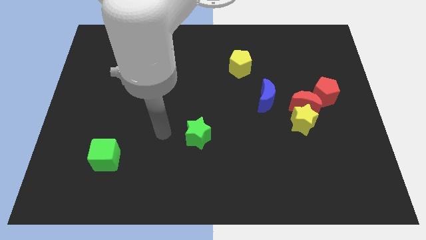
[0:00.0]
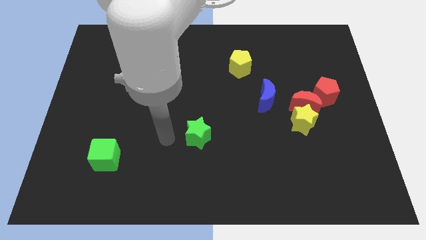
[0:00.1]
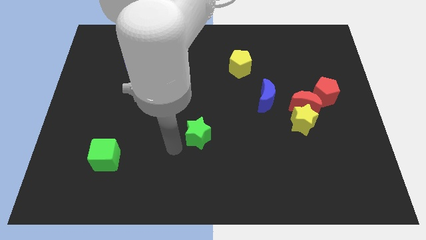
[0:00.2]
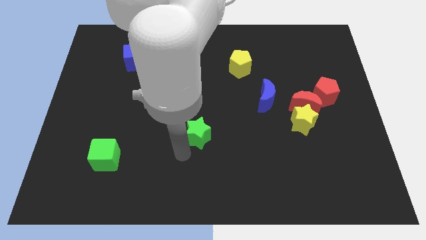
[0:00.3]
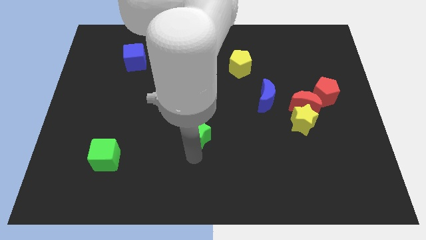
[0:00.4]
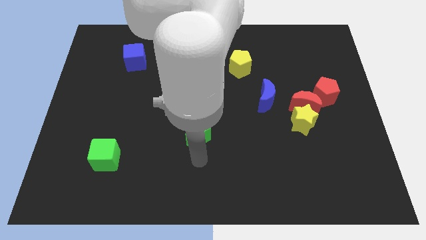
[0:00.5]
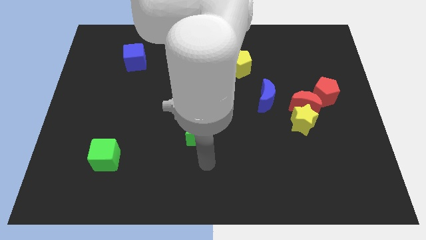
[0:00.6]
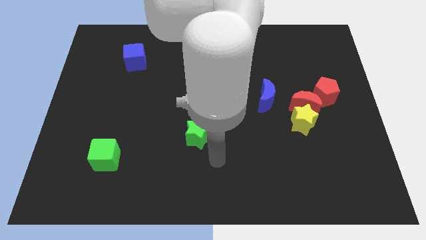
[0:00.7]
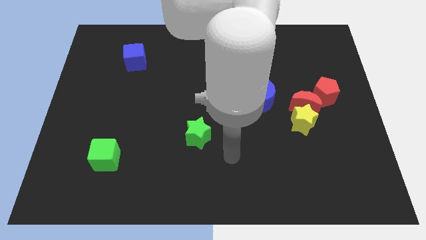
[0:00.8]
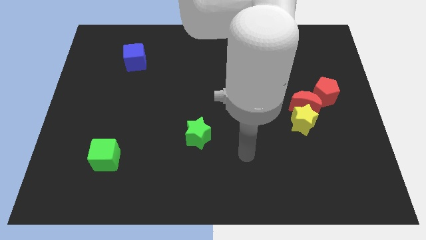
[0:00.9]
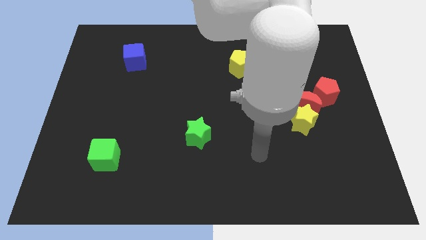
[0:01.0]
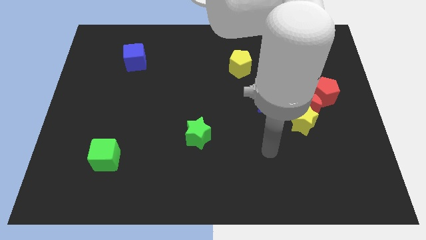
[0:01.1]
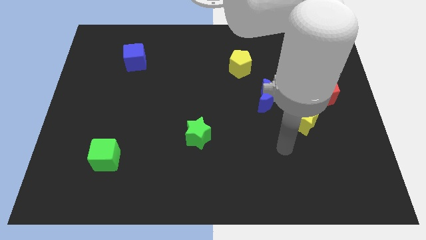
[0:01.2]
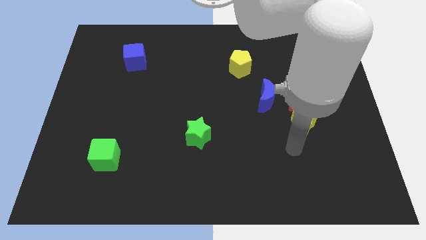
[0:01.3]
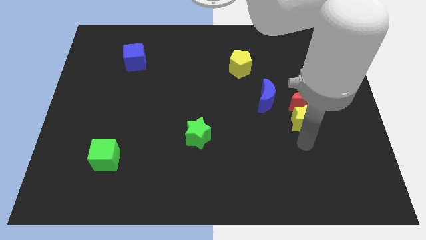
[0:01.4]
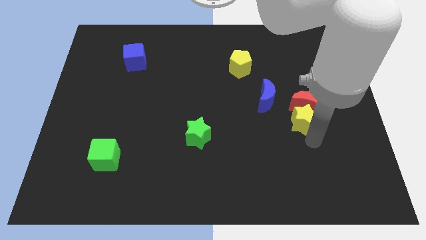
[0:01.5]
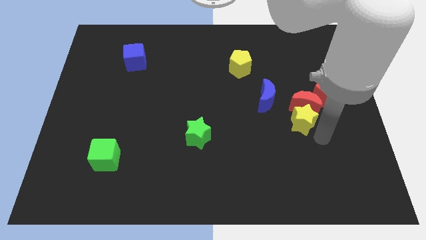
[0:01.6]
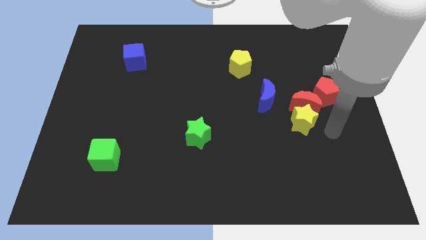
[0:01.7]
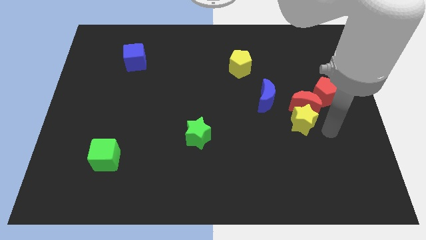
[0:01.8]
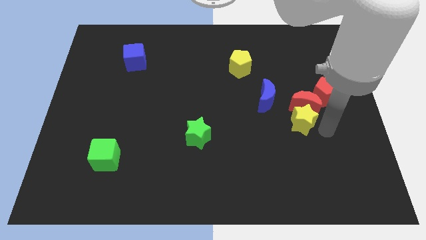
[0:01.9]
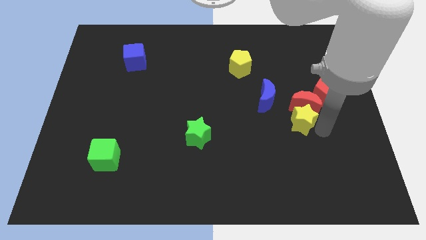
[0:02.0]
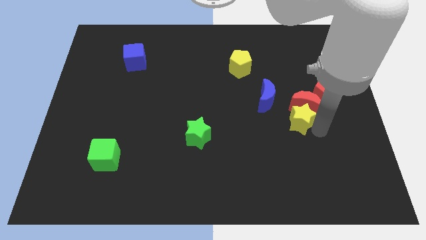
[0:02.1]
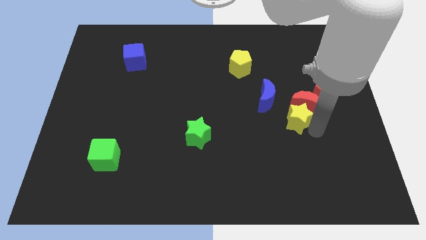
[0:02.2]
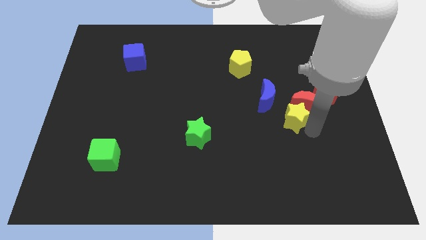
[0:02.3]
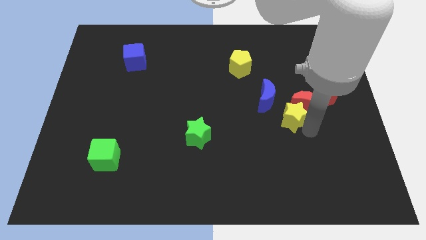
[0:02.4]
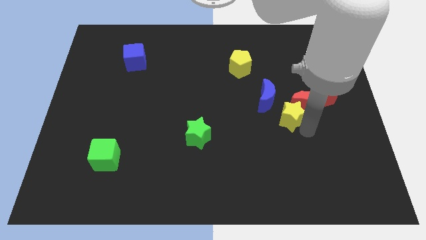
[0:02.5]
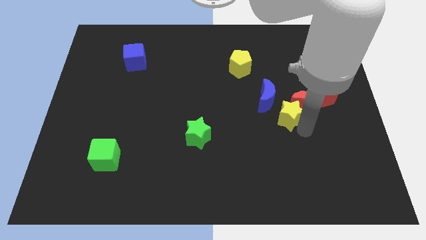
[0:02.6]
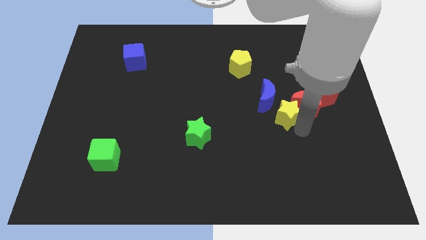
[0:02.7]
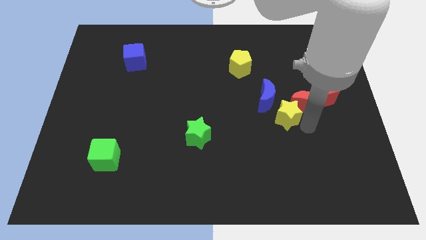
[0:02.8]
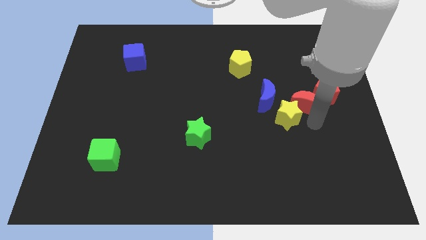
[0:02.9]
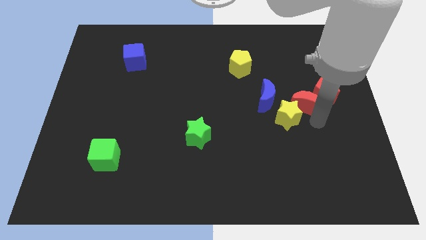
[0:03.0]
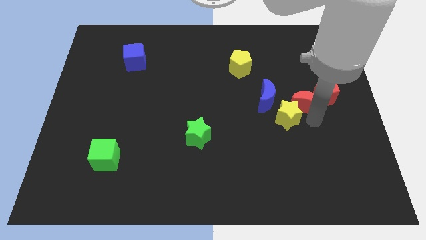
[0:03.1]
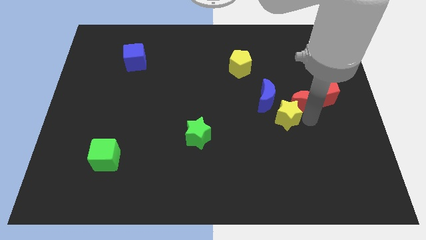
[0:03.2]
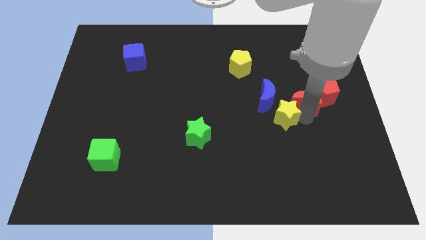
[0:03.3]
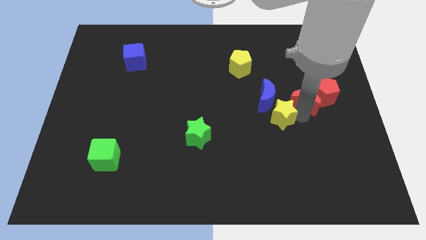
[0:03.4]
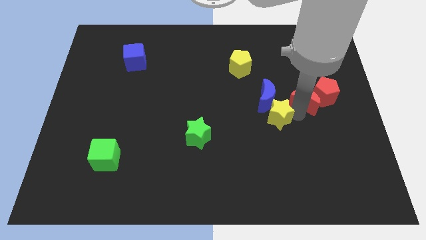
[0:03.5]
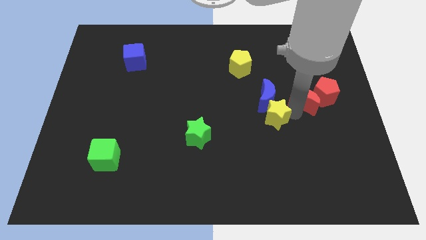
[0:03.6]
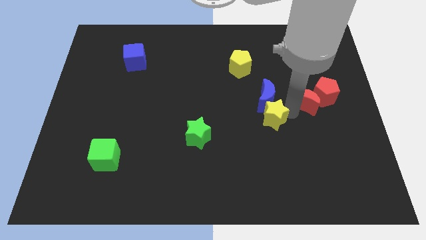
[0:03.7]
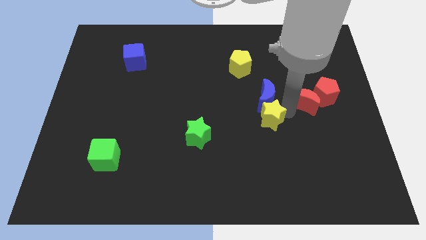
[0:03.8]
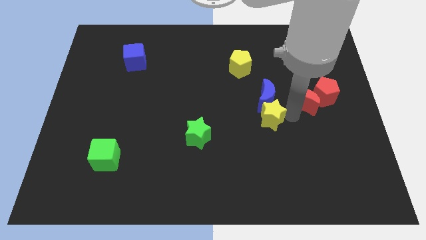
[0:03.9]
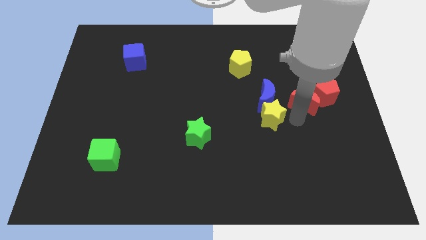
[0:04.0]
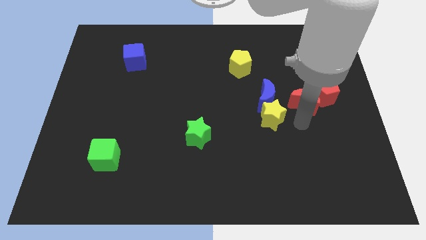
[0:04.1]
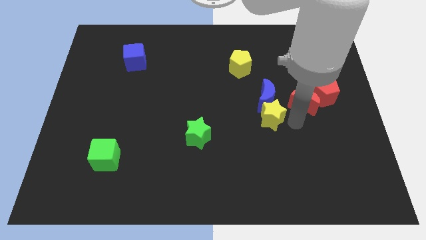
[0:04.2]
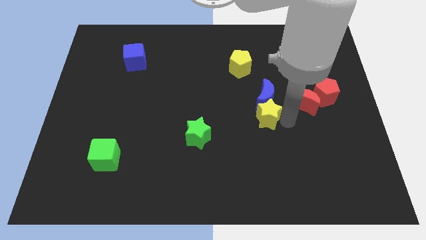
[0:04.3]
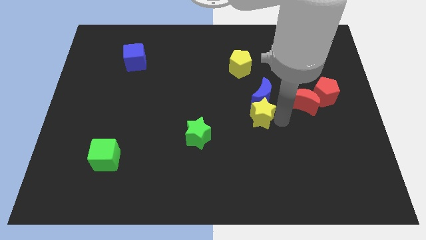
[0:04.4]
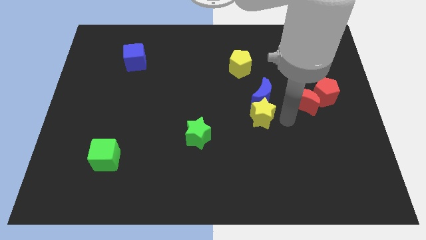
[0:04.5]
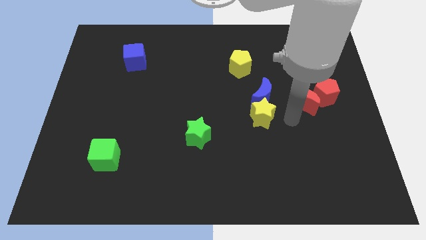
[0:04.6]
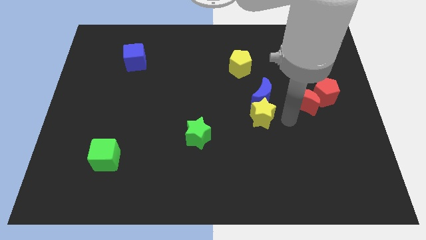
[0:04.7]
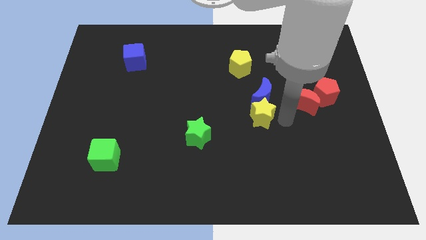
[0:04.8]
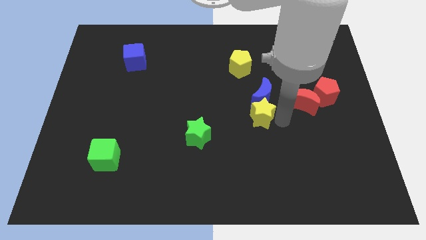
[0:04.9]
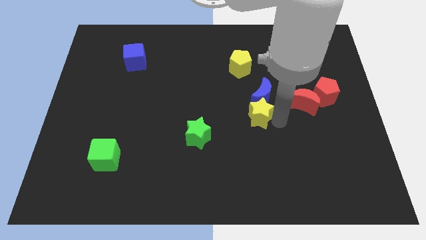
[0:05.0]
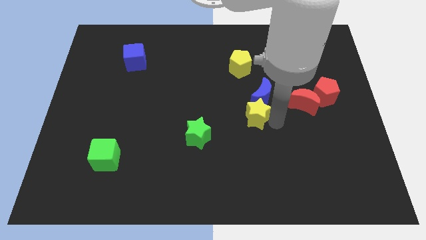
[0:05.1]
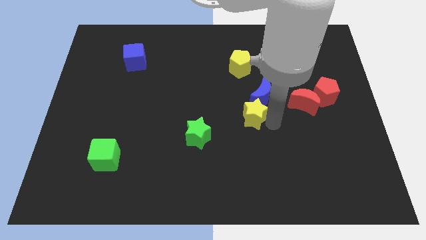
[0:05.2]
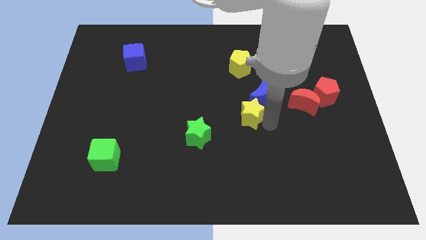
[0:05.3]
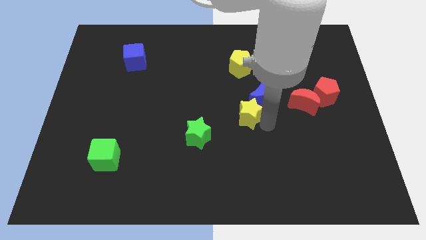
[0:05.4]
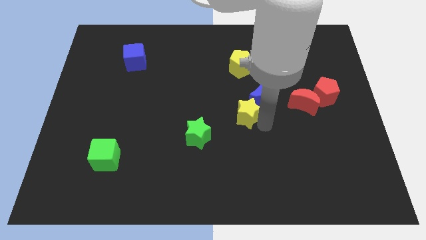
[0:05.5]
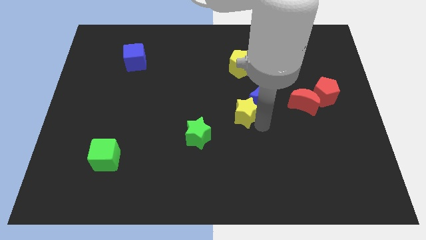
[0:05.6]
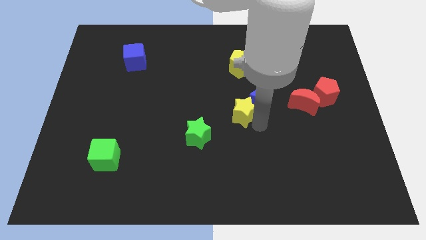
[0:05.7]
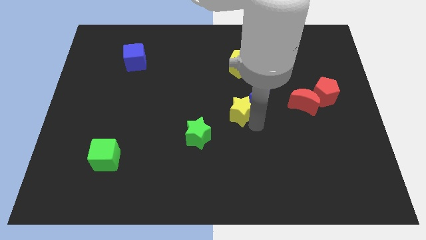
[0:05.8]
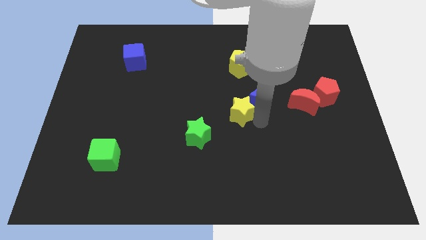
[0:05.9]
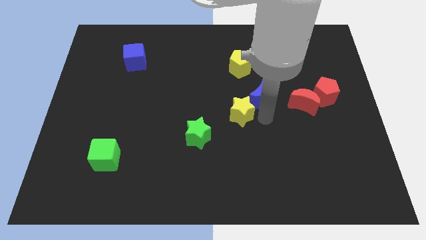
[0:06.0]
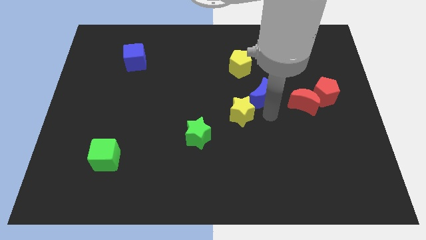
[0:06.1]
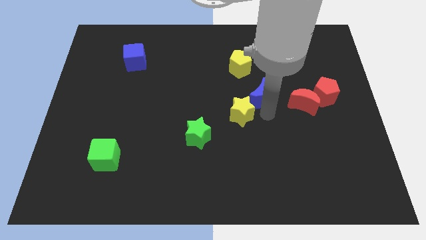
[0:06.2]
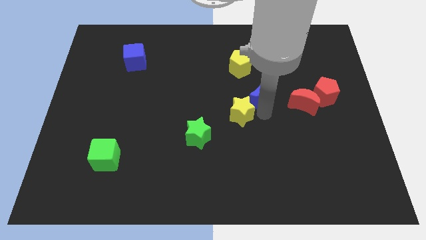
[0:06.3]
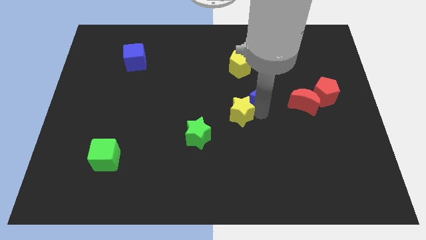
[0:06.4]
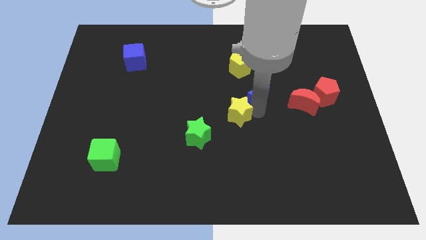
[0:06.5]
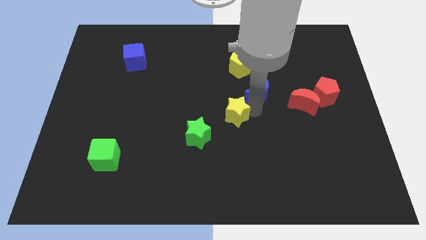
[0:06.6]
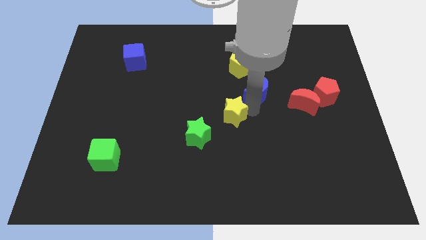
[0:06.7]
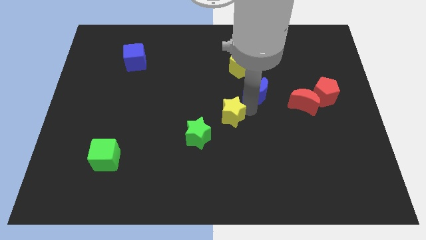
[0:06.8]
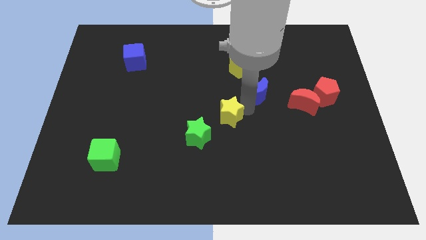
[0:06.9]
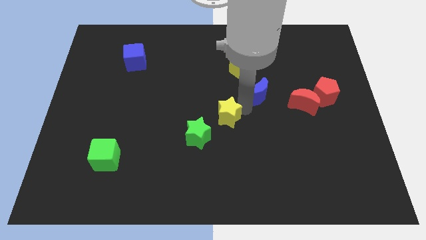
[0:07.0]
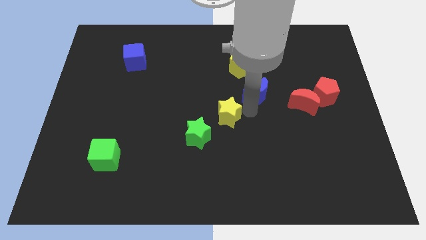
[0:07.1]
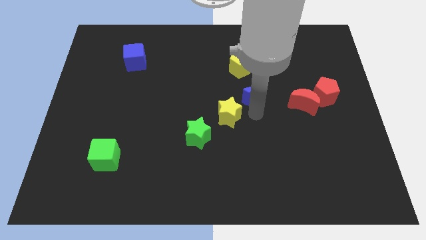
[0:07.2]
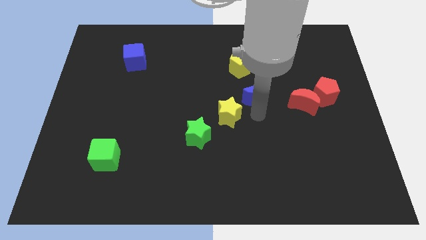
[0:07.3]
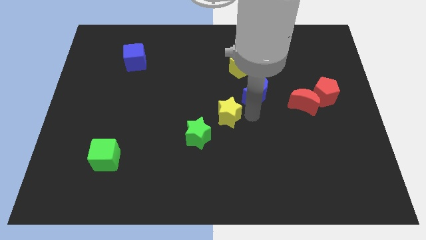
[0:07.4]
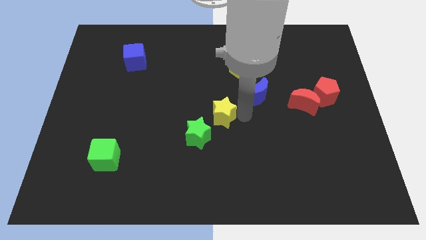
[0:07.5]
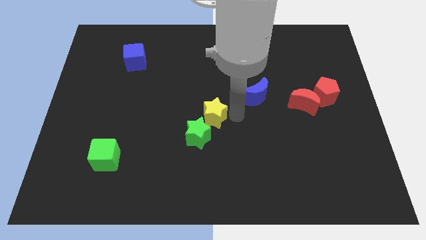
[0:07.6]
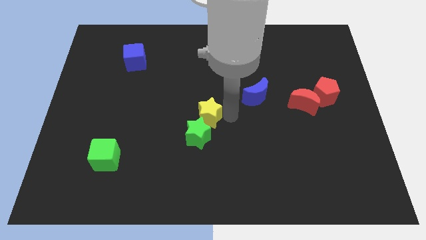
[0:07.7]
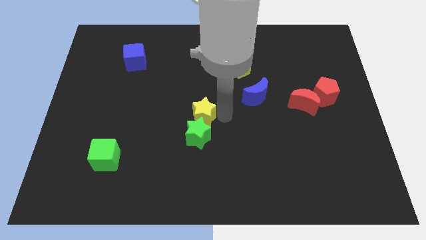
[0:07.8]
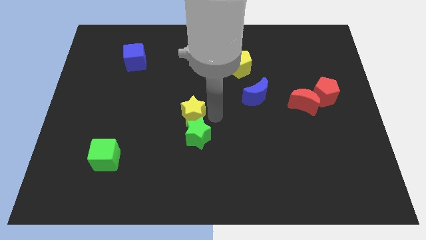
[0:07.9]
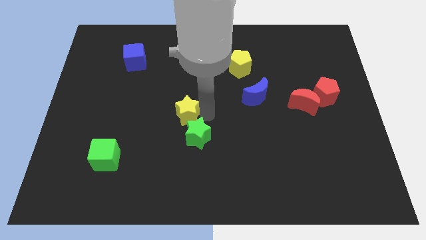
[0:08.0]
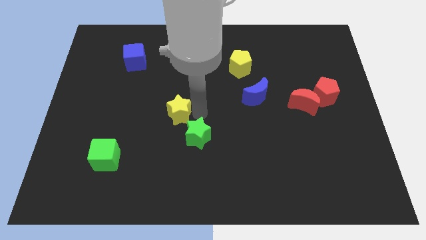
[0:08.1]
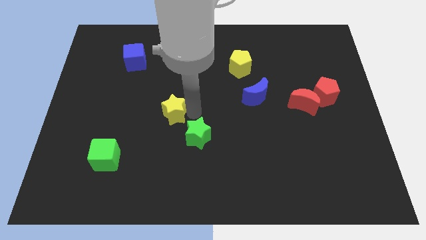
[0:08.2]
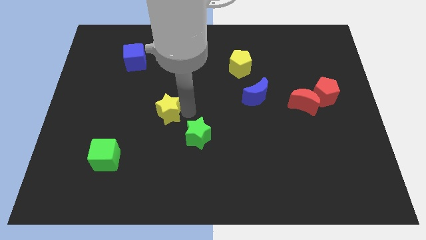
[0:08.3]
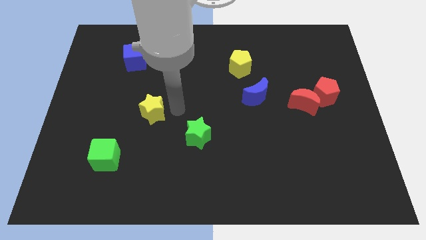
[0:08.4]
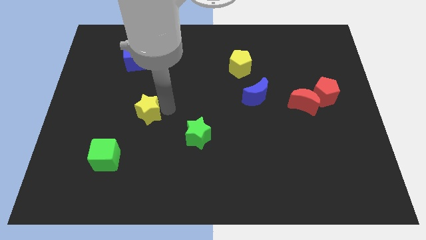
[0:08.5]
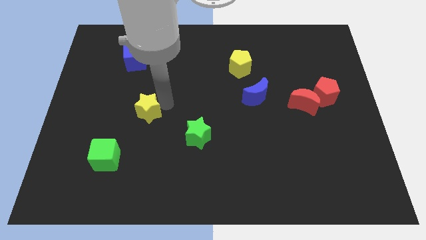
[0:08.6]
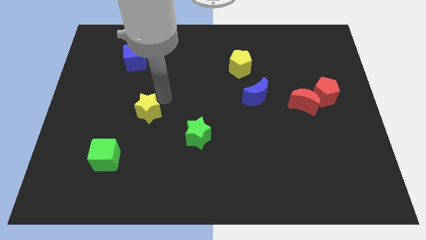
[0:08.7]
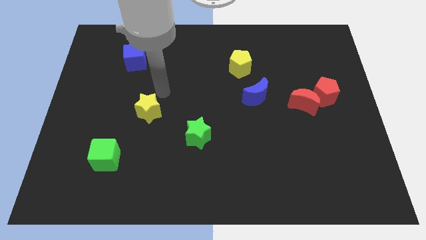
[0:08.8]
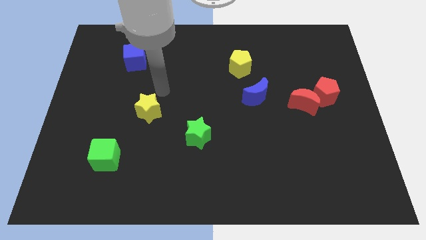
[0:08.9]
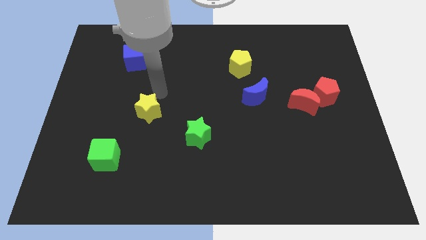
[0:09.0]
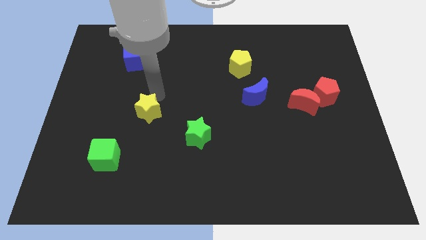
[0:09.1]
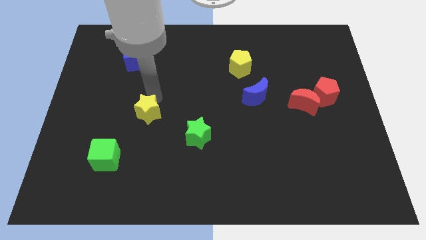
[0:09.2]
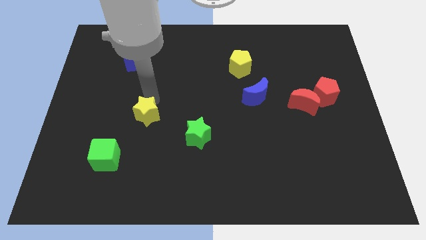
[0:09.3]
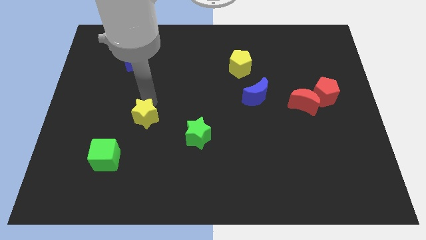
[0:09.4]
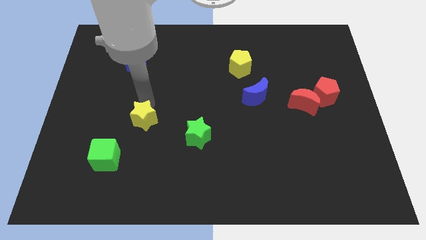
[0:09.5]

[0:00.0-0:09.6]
slide the yellow star to the top right of the green cube
